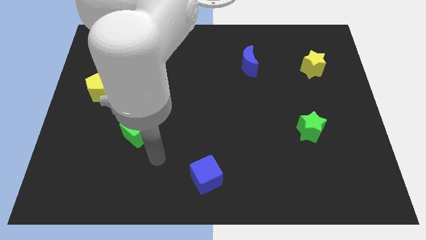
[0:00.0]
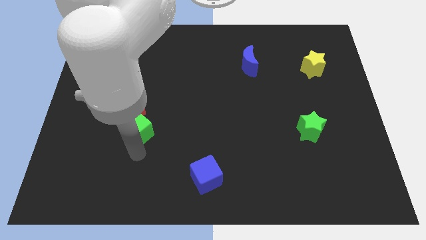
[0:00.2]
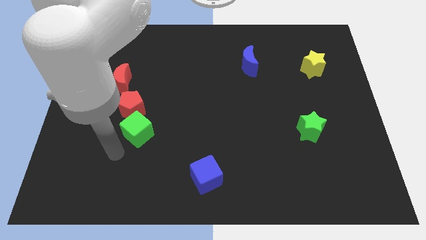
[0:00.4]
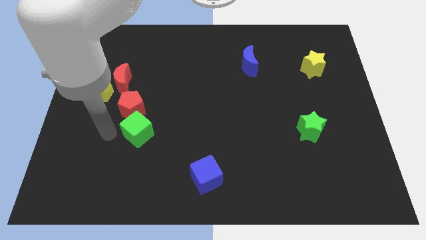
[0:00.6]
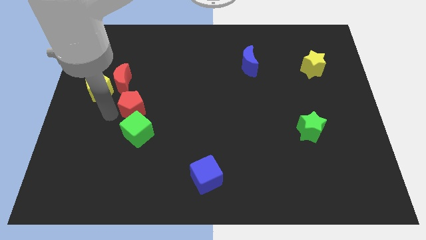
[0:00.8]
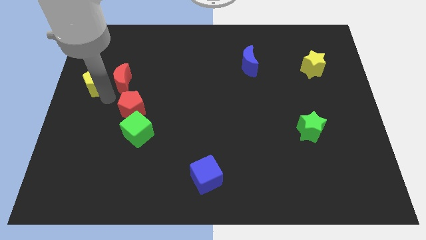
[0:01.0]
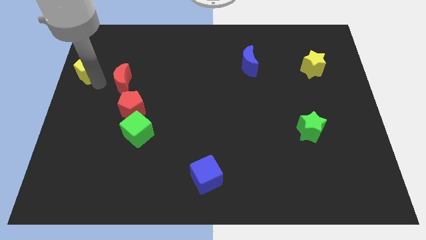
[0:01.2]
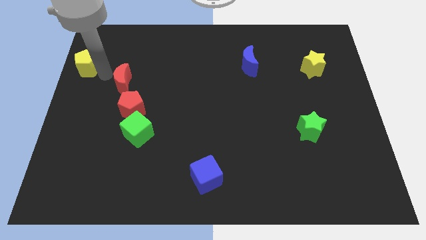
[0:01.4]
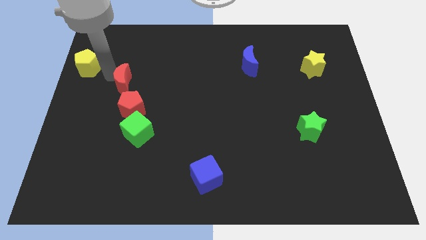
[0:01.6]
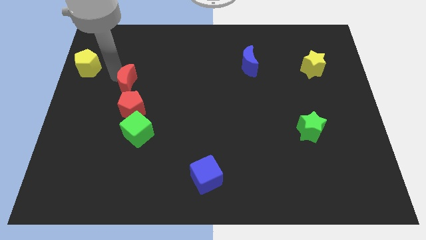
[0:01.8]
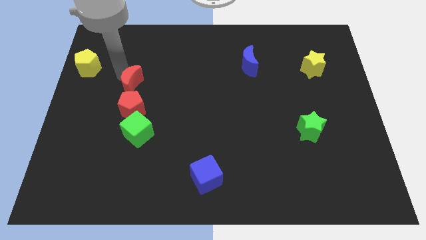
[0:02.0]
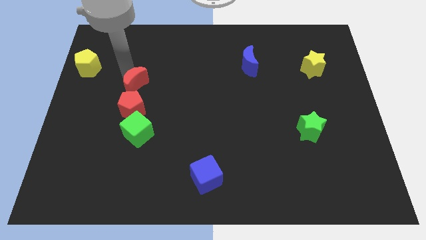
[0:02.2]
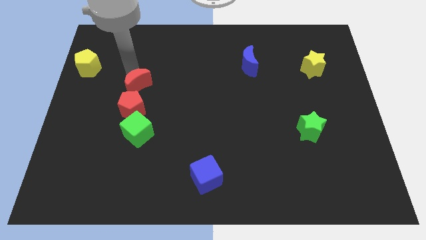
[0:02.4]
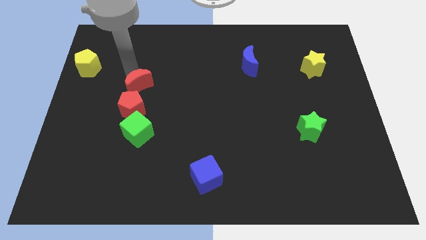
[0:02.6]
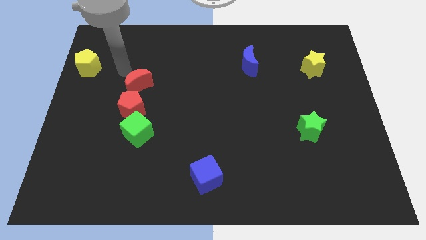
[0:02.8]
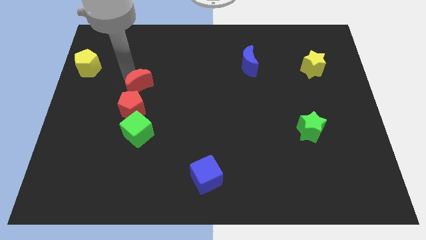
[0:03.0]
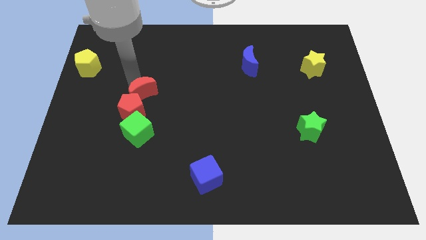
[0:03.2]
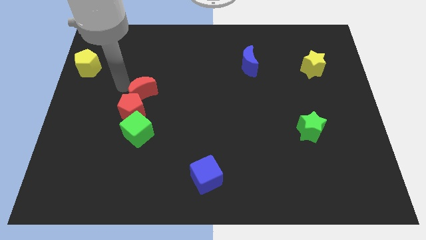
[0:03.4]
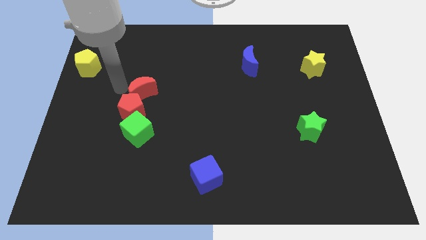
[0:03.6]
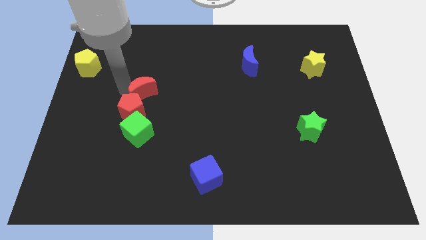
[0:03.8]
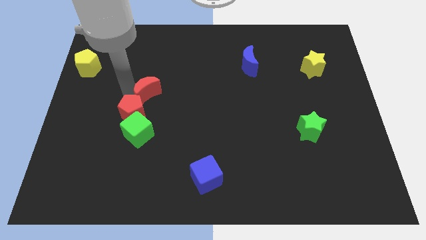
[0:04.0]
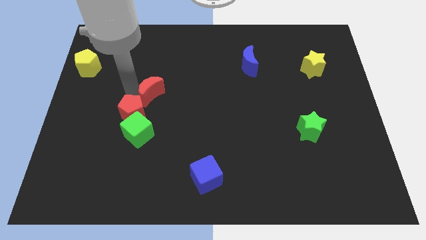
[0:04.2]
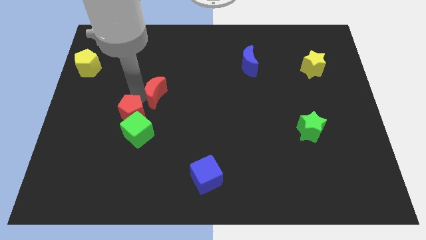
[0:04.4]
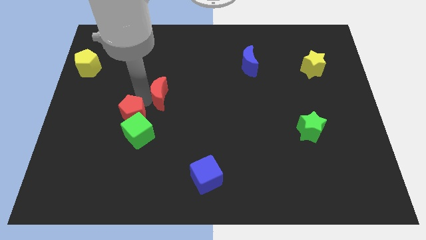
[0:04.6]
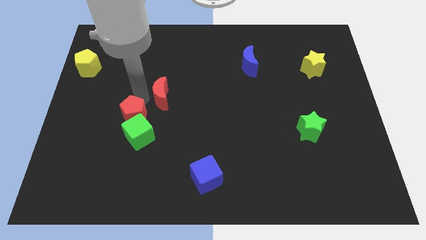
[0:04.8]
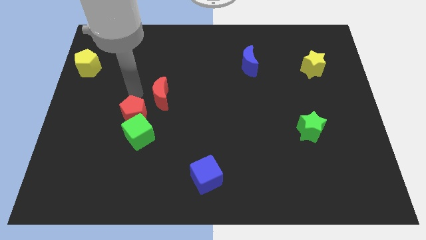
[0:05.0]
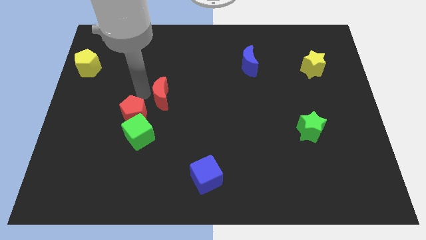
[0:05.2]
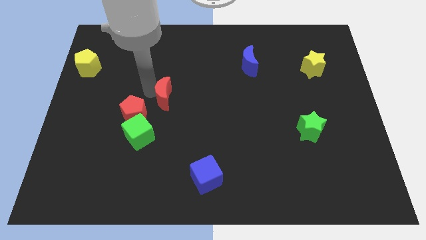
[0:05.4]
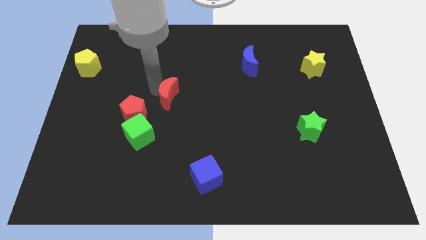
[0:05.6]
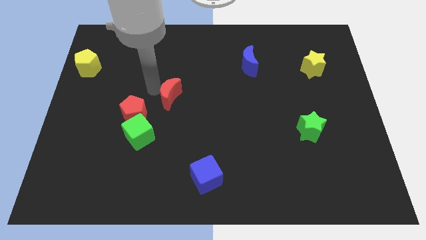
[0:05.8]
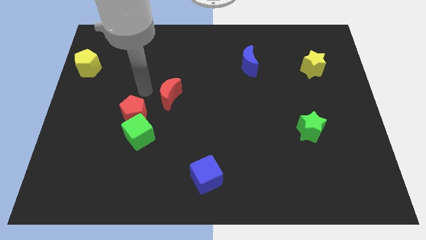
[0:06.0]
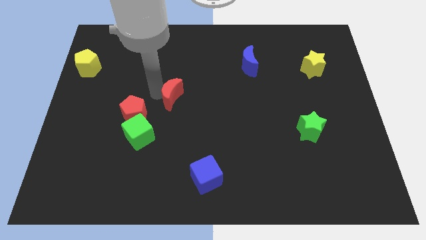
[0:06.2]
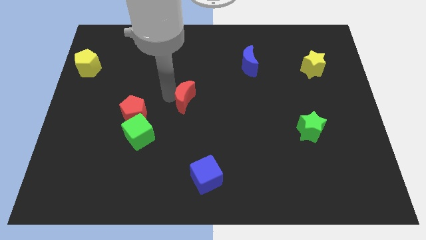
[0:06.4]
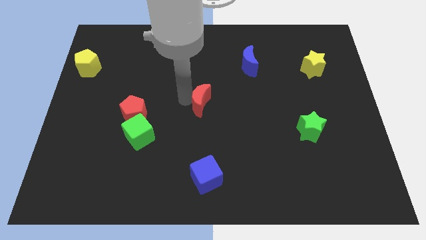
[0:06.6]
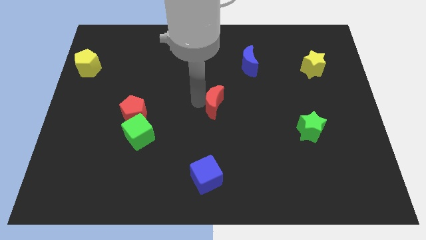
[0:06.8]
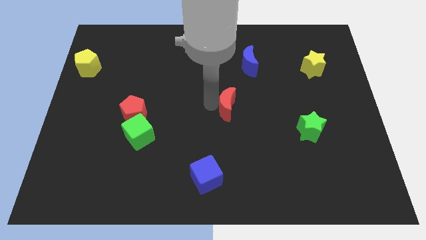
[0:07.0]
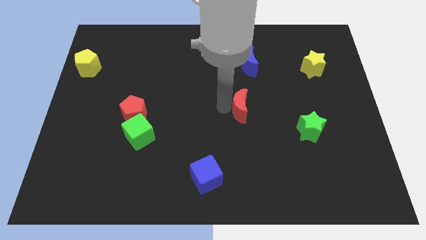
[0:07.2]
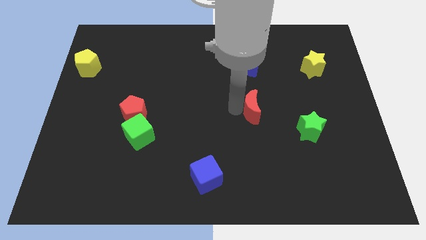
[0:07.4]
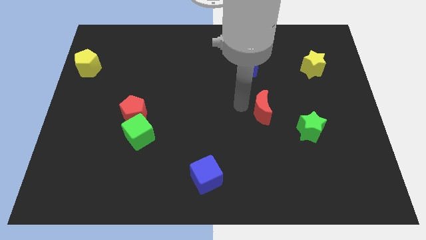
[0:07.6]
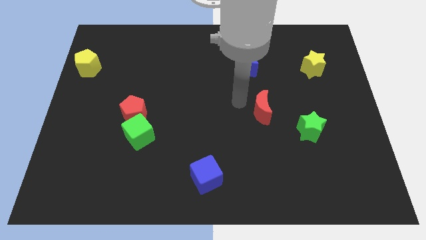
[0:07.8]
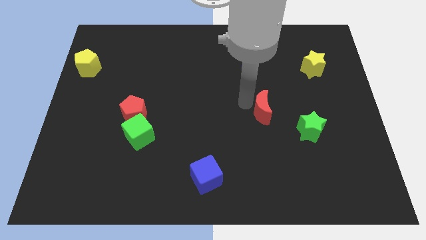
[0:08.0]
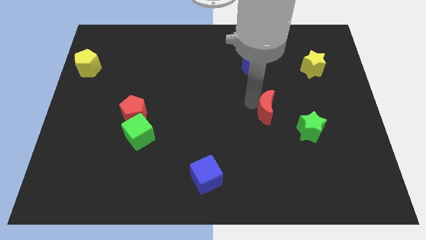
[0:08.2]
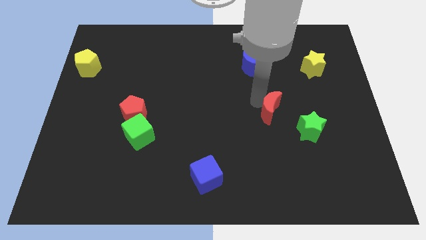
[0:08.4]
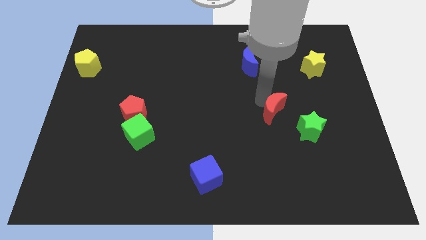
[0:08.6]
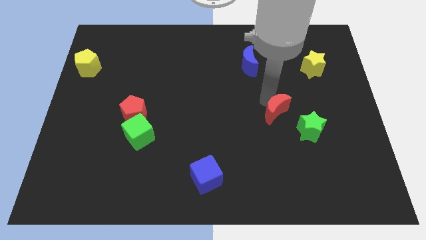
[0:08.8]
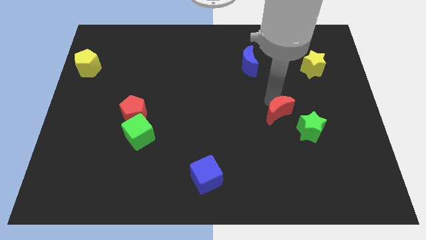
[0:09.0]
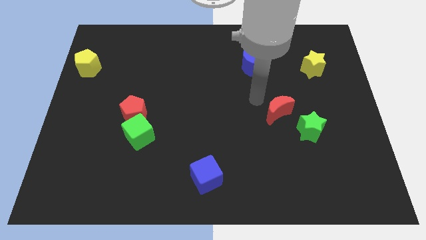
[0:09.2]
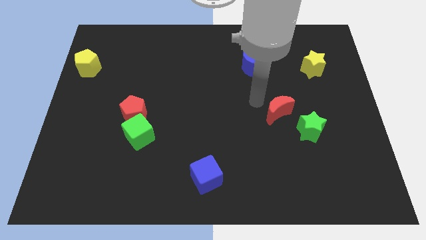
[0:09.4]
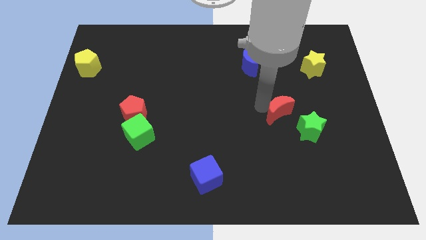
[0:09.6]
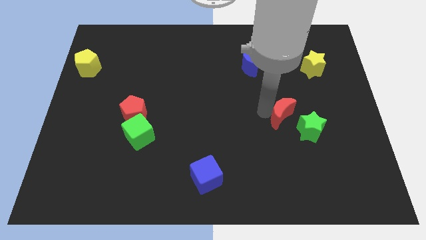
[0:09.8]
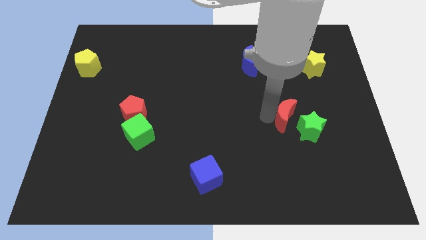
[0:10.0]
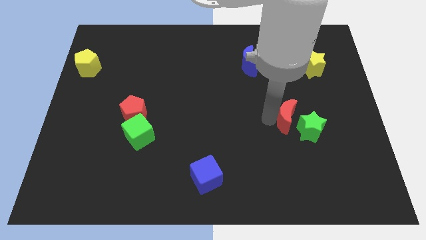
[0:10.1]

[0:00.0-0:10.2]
push the red moon towards the green star

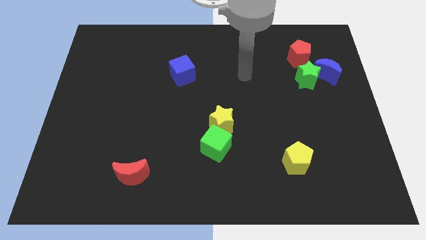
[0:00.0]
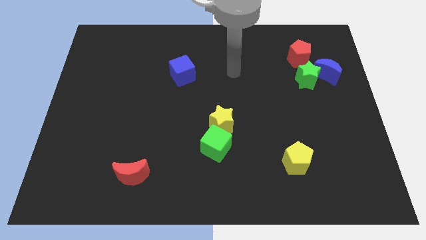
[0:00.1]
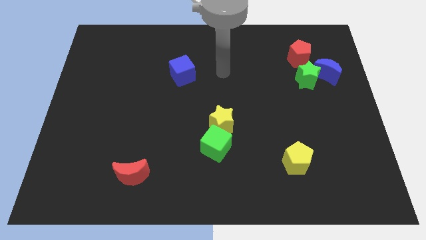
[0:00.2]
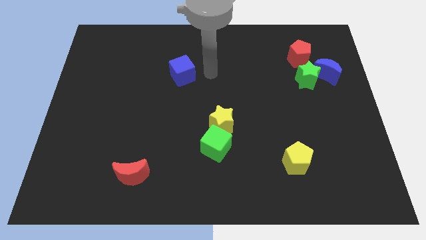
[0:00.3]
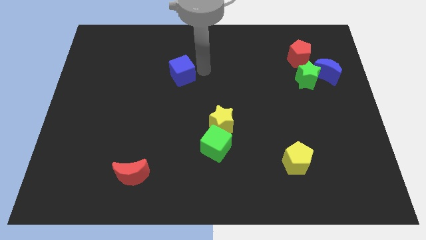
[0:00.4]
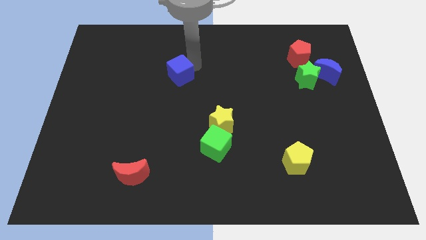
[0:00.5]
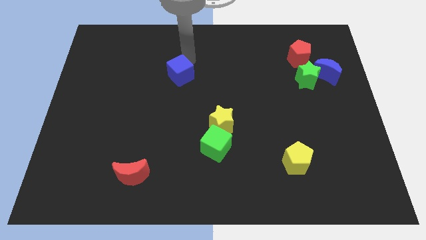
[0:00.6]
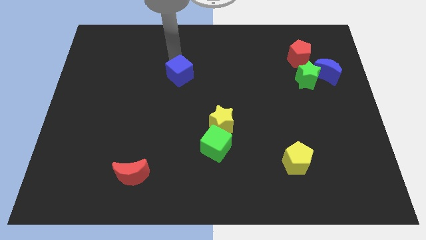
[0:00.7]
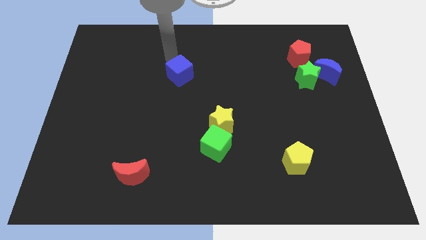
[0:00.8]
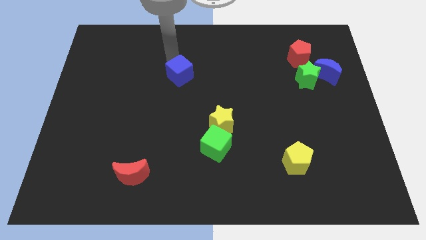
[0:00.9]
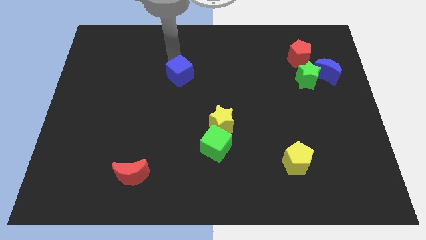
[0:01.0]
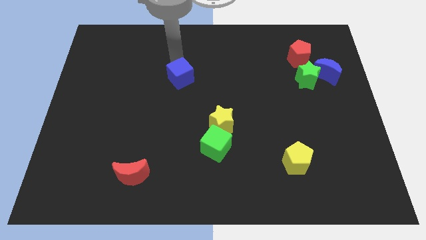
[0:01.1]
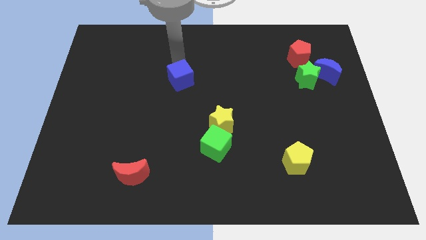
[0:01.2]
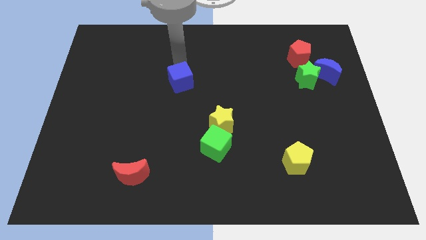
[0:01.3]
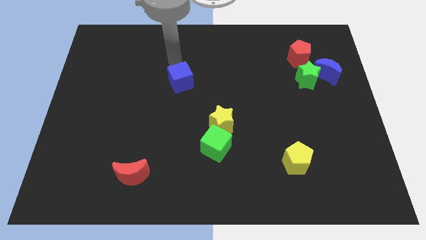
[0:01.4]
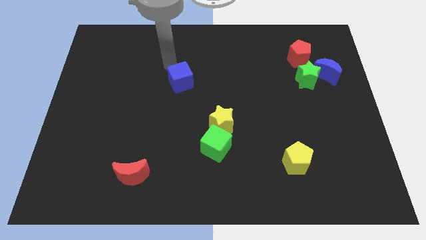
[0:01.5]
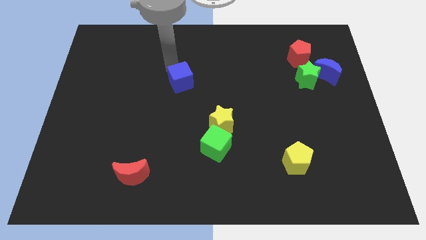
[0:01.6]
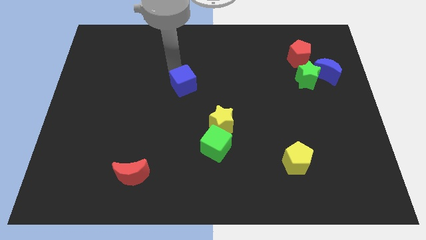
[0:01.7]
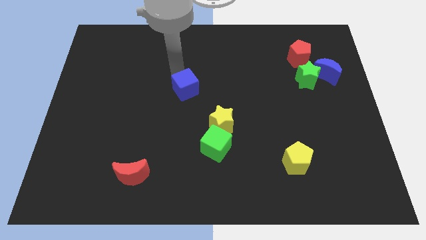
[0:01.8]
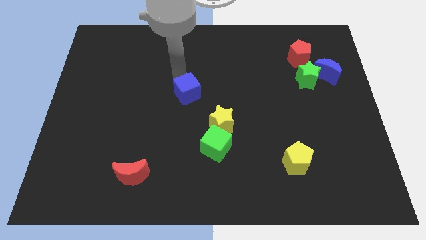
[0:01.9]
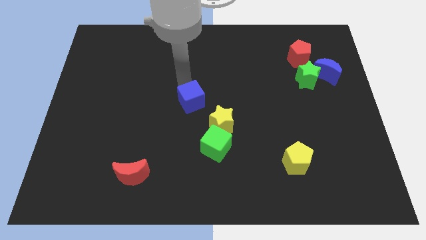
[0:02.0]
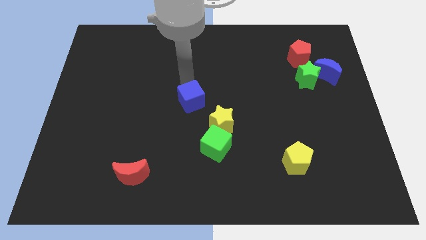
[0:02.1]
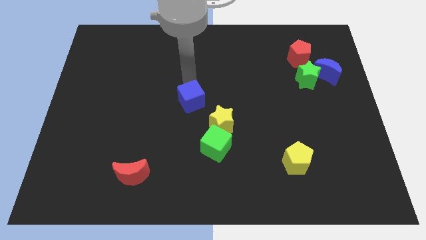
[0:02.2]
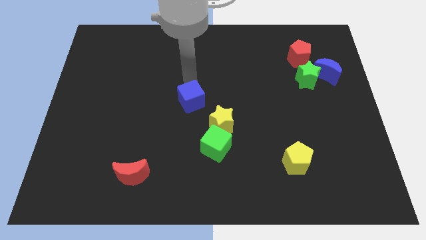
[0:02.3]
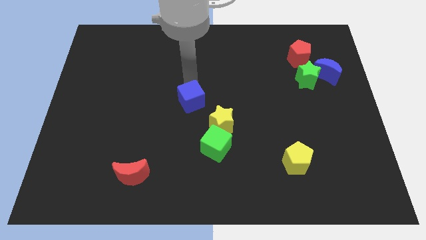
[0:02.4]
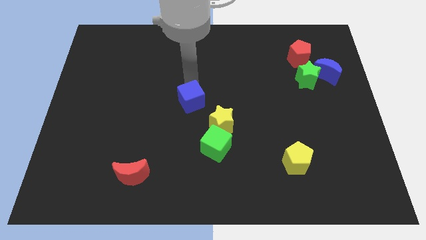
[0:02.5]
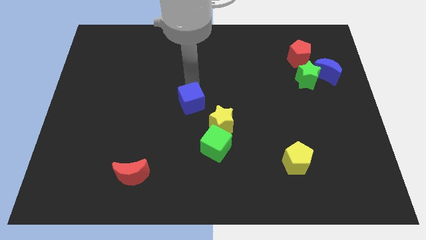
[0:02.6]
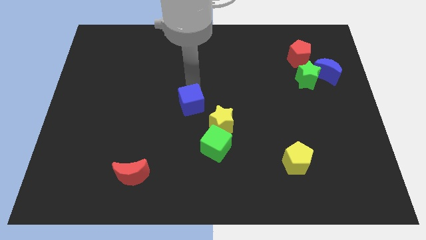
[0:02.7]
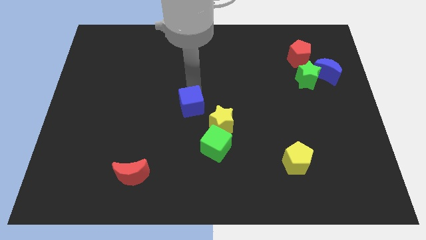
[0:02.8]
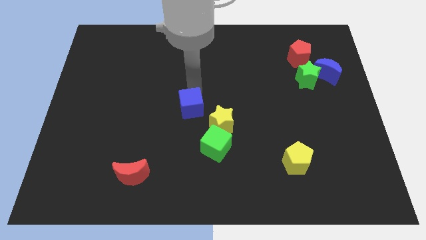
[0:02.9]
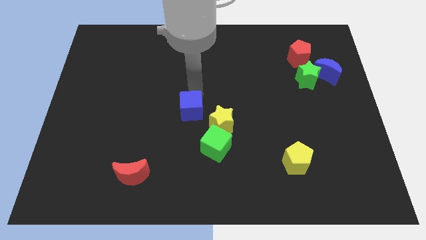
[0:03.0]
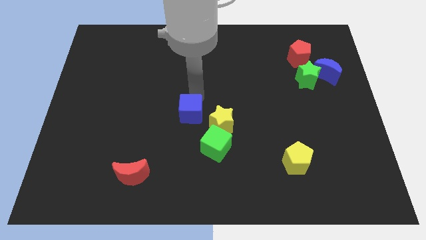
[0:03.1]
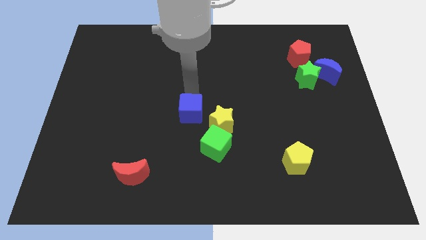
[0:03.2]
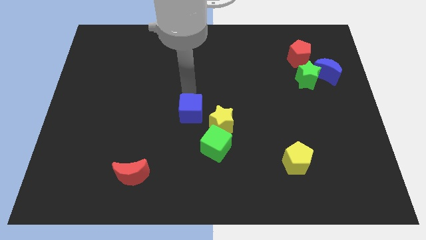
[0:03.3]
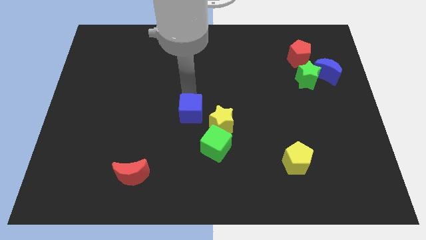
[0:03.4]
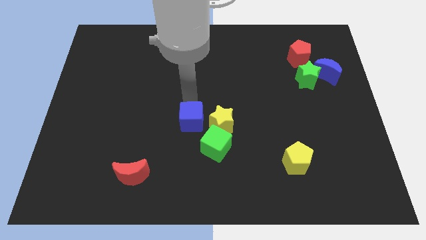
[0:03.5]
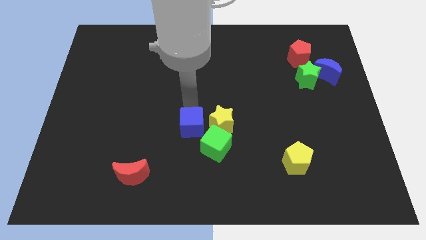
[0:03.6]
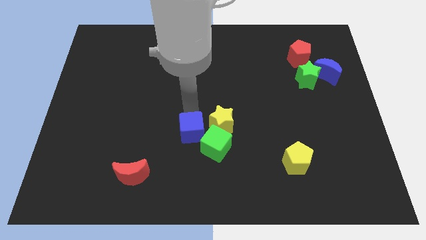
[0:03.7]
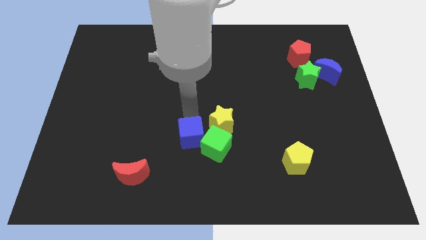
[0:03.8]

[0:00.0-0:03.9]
slide the blue cube close to the green cube
